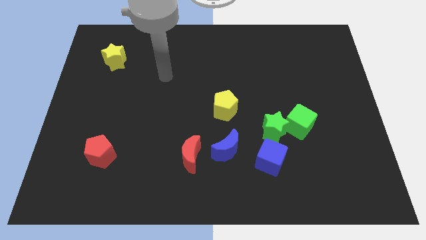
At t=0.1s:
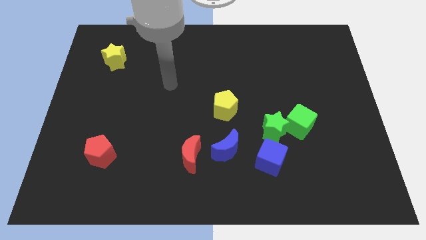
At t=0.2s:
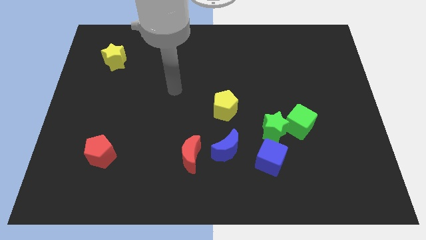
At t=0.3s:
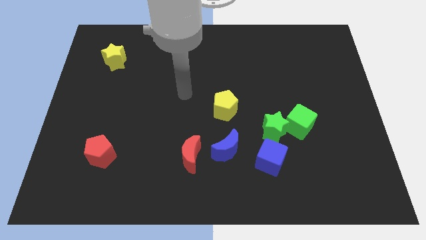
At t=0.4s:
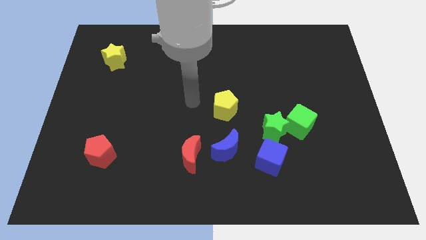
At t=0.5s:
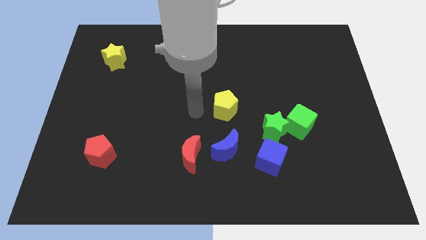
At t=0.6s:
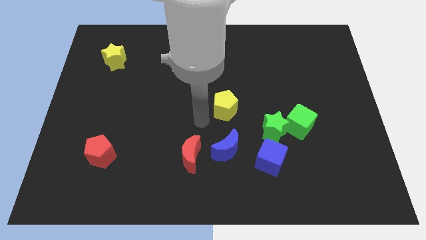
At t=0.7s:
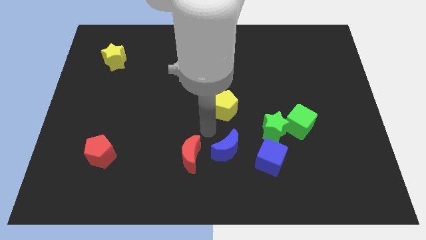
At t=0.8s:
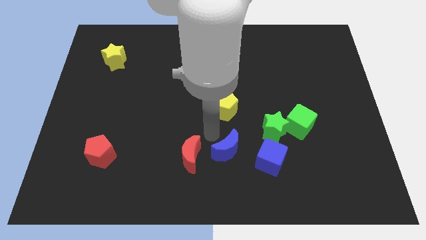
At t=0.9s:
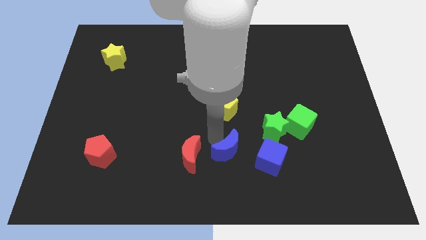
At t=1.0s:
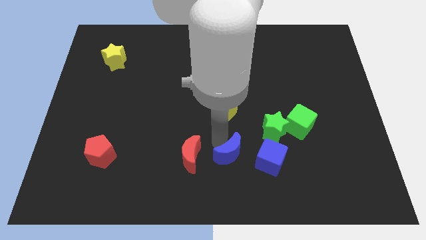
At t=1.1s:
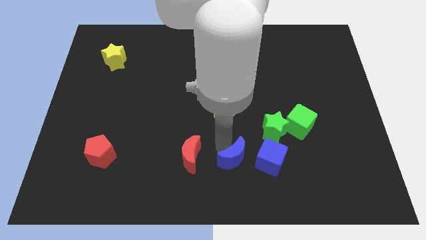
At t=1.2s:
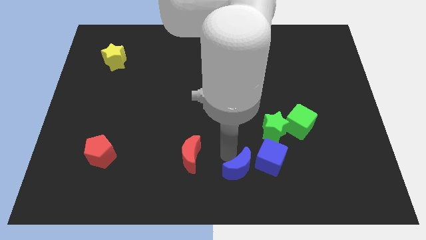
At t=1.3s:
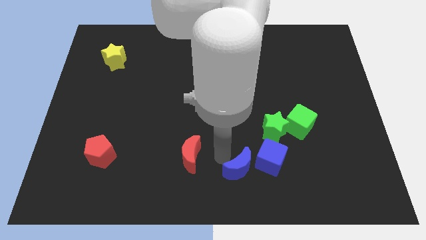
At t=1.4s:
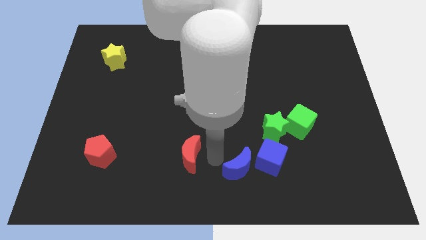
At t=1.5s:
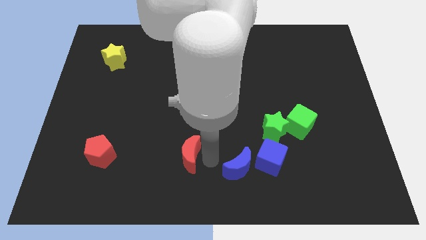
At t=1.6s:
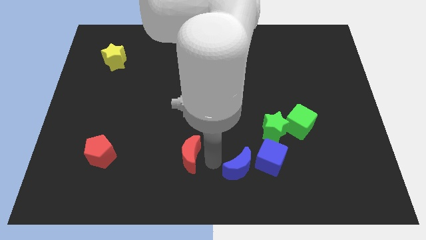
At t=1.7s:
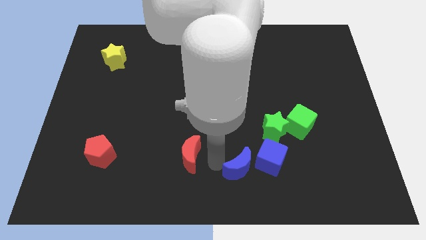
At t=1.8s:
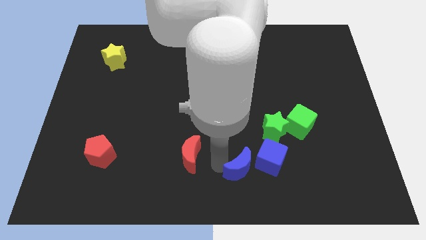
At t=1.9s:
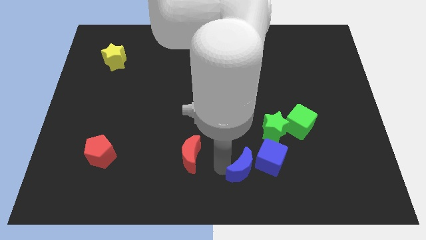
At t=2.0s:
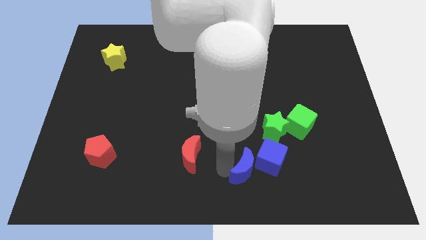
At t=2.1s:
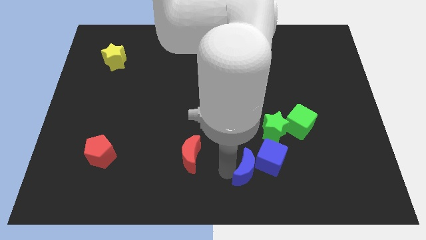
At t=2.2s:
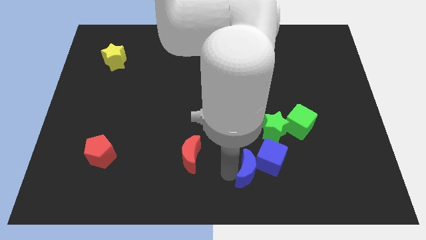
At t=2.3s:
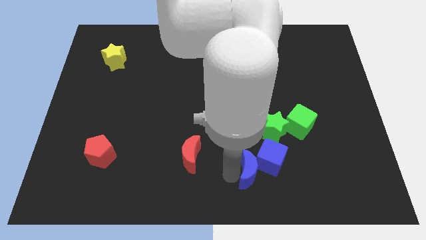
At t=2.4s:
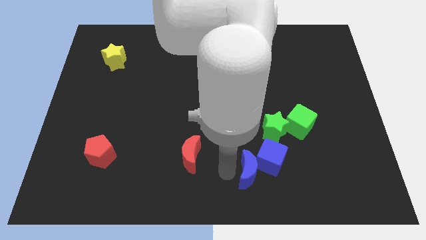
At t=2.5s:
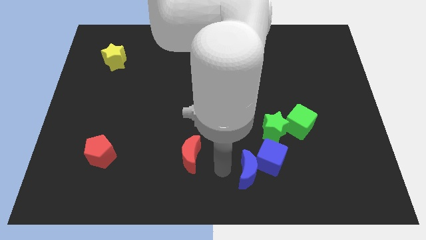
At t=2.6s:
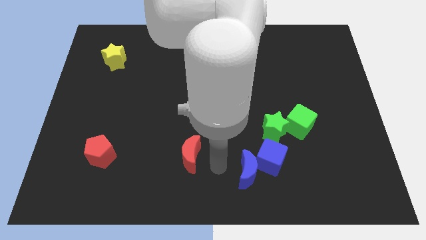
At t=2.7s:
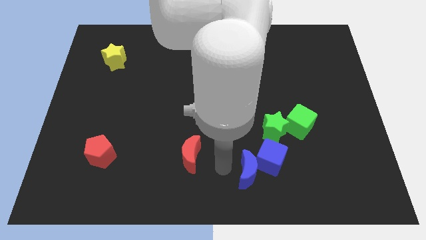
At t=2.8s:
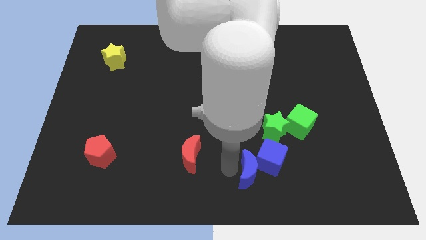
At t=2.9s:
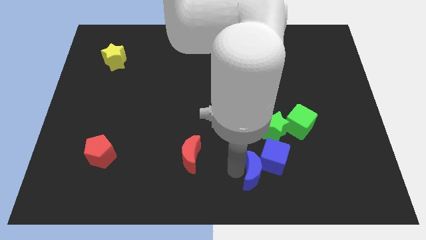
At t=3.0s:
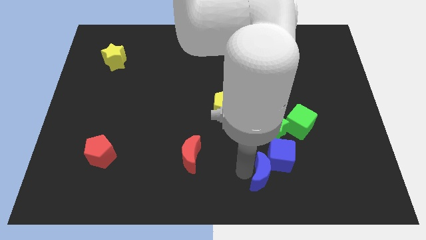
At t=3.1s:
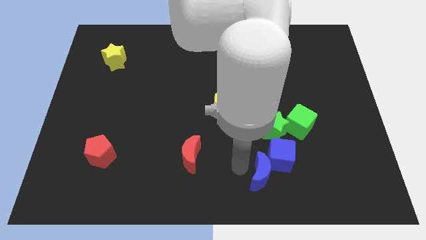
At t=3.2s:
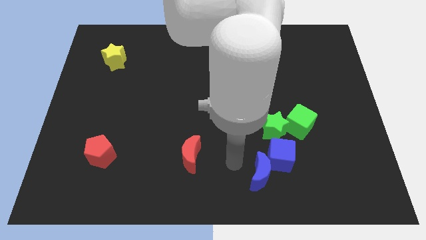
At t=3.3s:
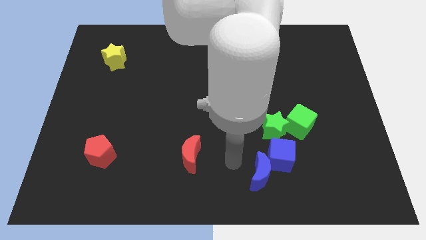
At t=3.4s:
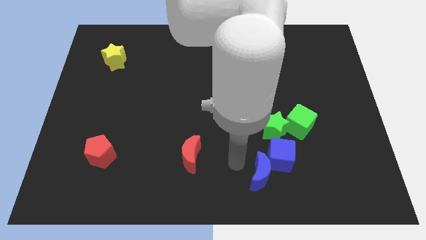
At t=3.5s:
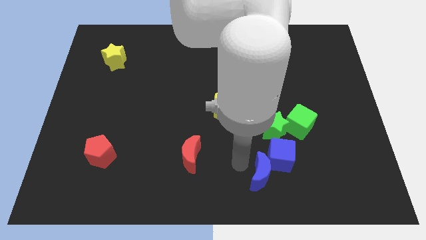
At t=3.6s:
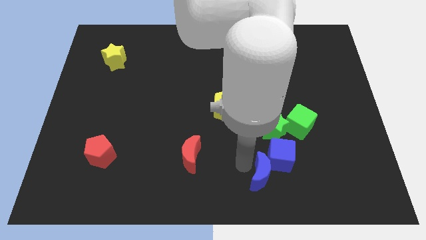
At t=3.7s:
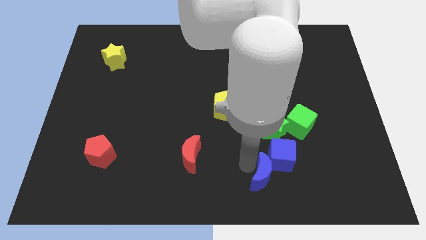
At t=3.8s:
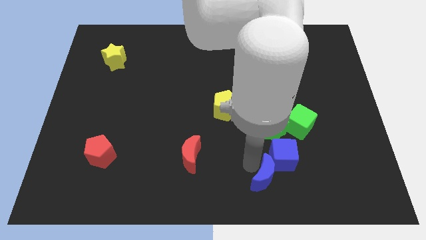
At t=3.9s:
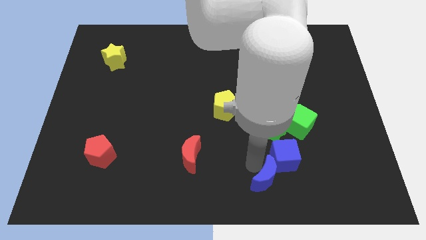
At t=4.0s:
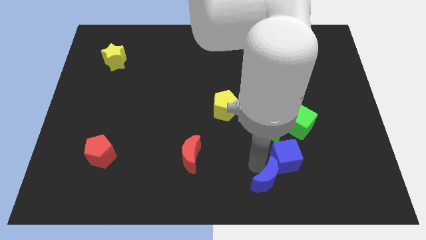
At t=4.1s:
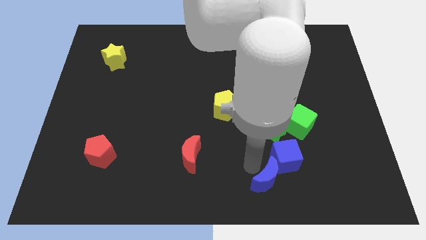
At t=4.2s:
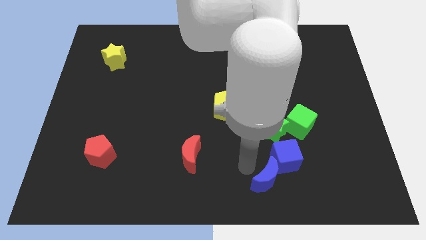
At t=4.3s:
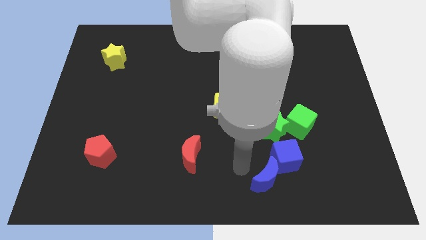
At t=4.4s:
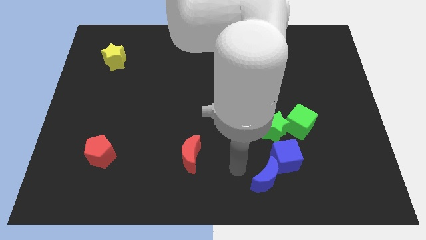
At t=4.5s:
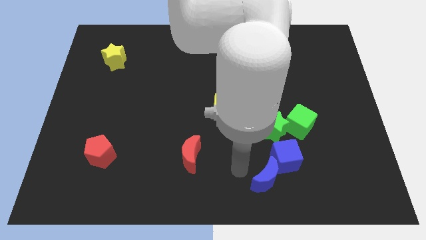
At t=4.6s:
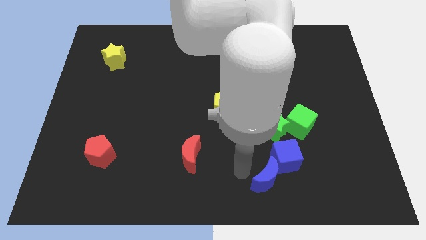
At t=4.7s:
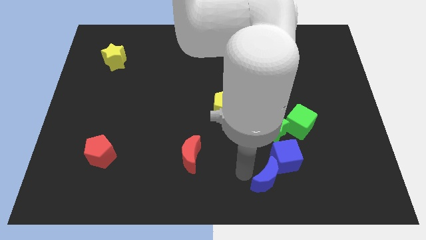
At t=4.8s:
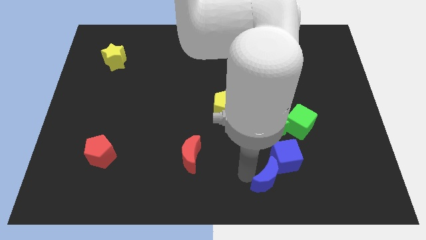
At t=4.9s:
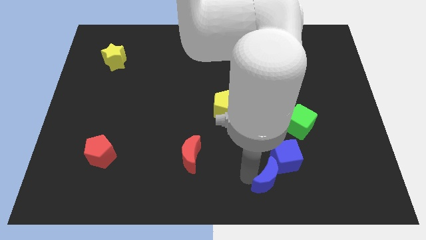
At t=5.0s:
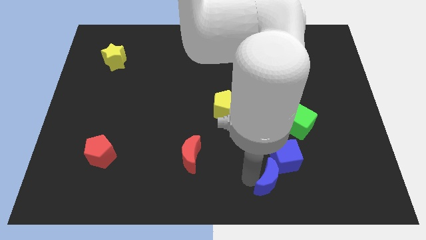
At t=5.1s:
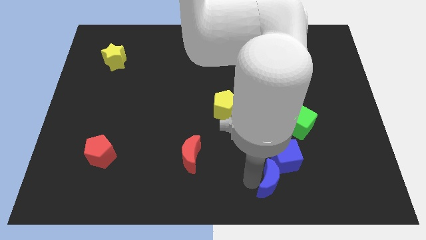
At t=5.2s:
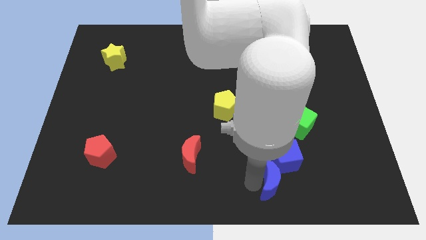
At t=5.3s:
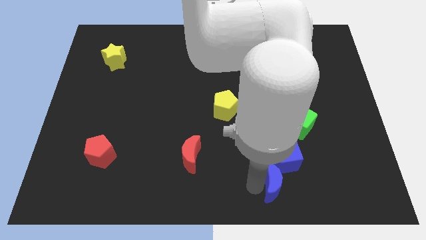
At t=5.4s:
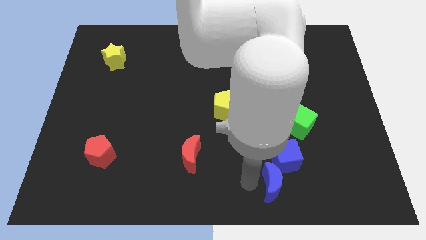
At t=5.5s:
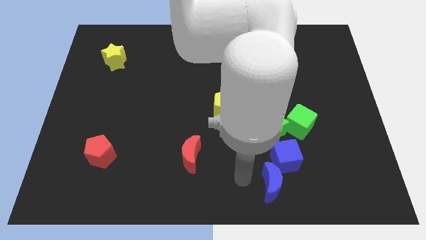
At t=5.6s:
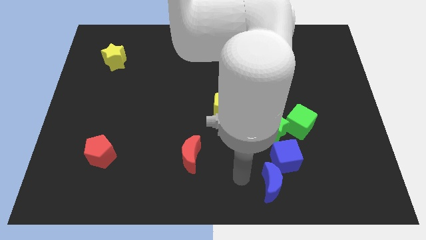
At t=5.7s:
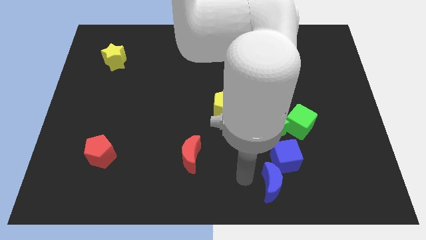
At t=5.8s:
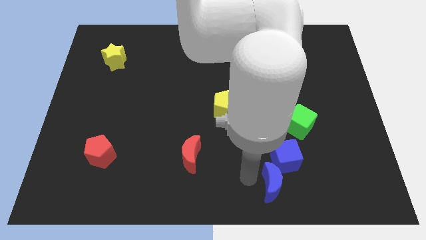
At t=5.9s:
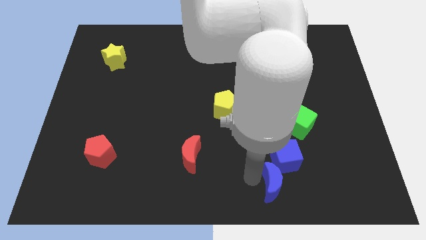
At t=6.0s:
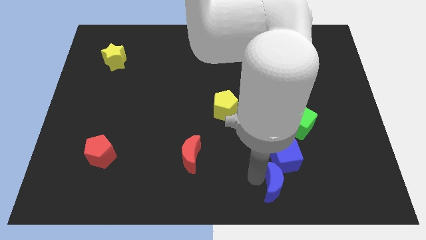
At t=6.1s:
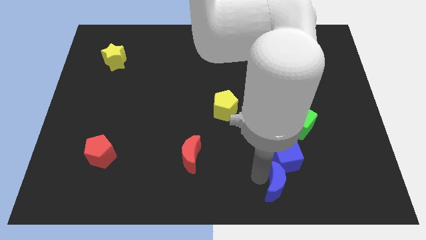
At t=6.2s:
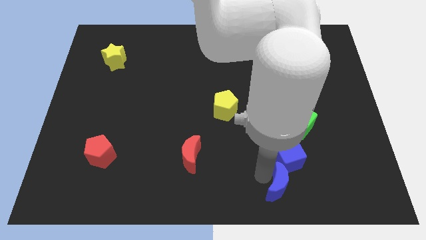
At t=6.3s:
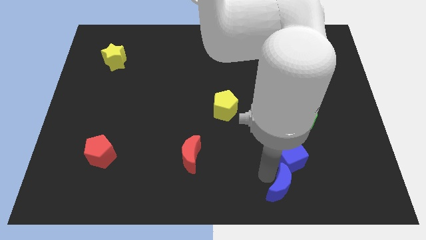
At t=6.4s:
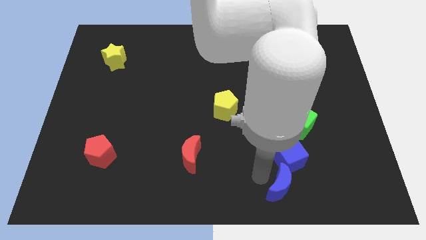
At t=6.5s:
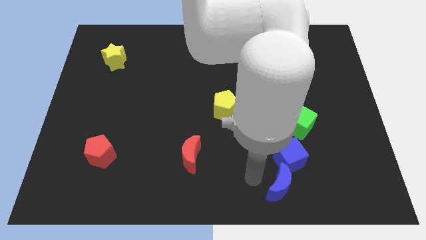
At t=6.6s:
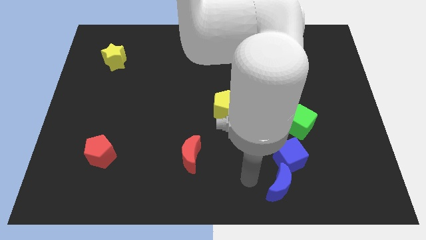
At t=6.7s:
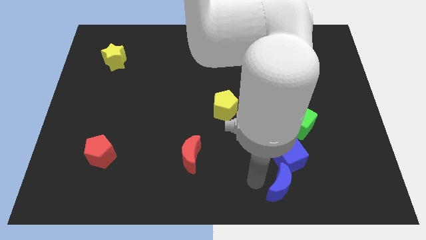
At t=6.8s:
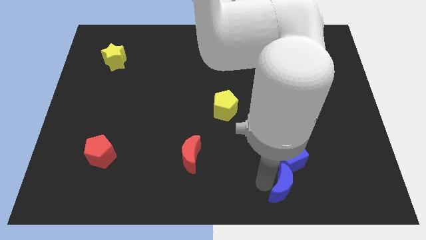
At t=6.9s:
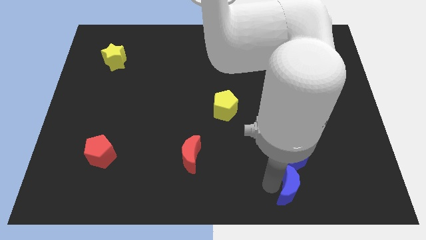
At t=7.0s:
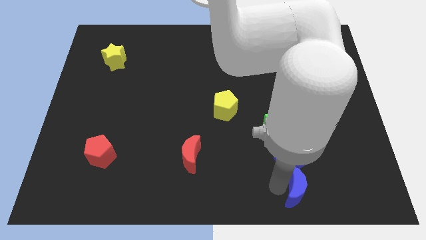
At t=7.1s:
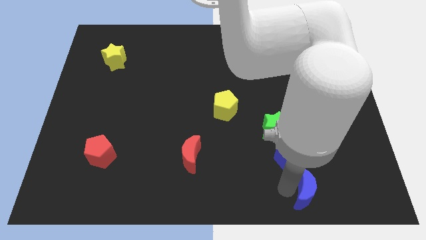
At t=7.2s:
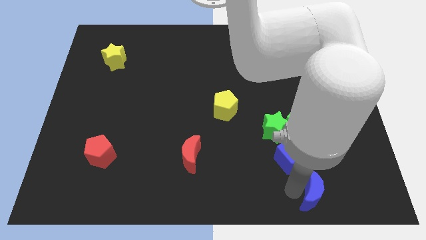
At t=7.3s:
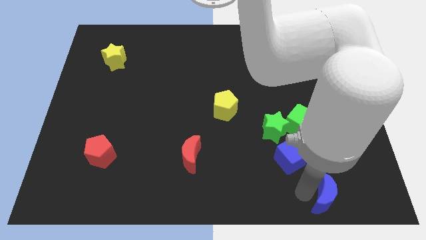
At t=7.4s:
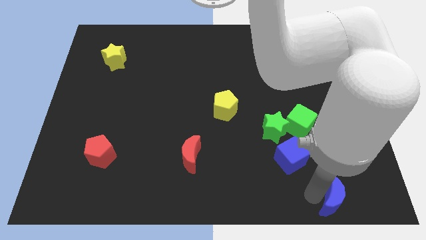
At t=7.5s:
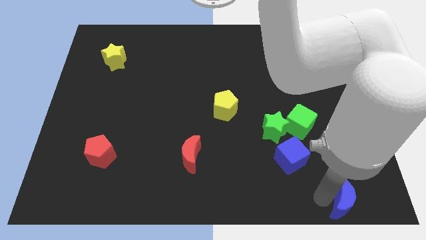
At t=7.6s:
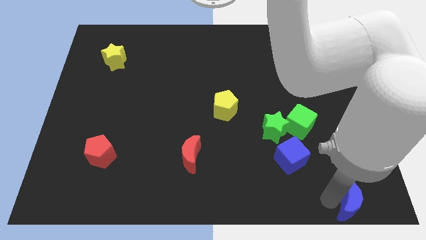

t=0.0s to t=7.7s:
slide the blue moon to the lower right corner
